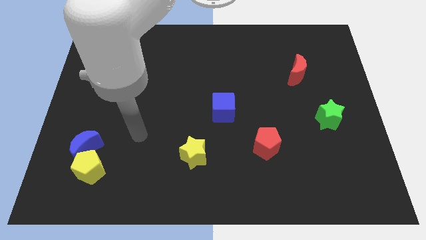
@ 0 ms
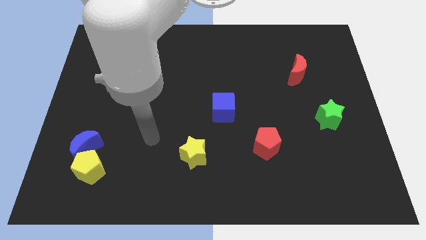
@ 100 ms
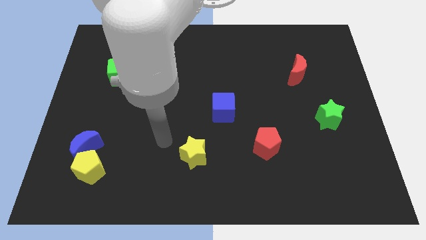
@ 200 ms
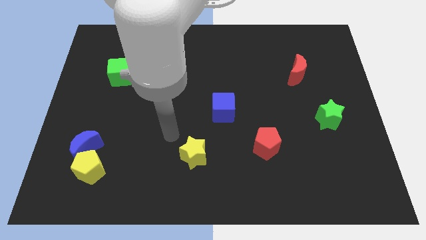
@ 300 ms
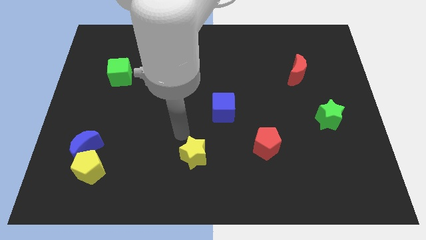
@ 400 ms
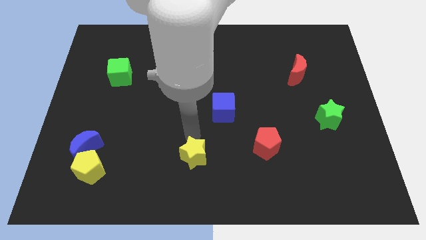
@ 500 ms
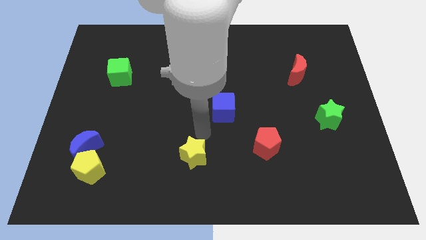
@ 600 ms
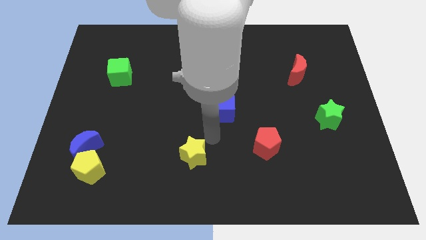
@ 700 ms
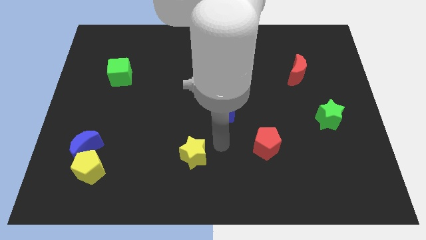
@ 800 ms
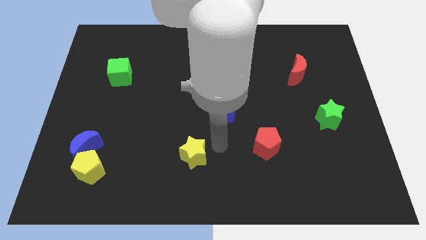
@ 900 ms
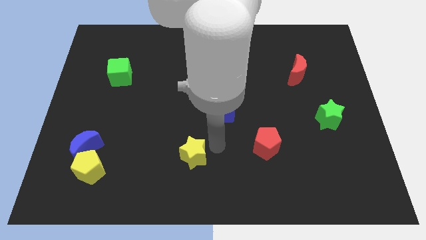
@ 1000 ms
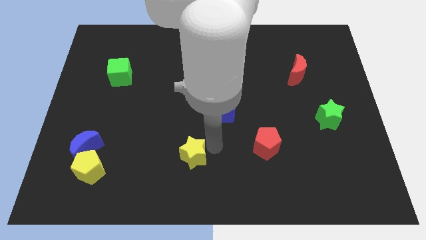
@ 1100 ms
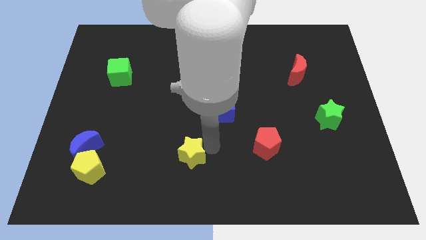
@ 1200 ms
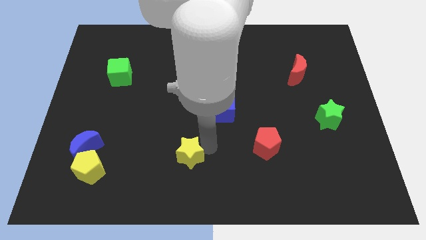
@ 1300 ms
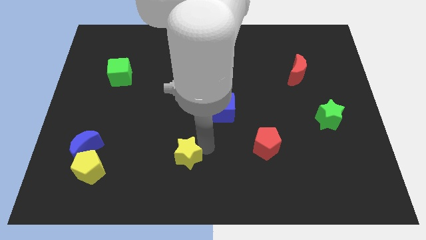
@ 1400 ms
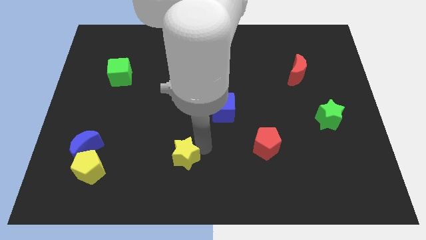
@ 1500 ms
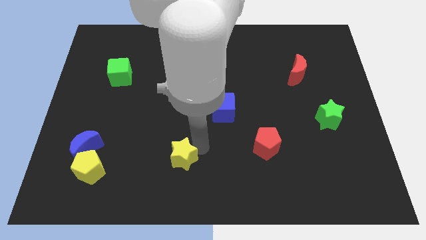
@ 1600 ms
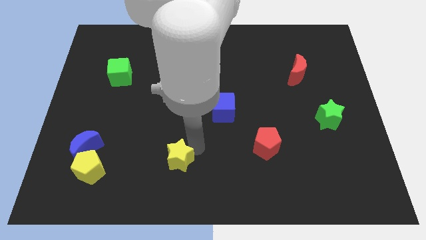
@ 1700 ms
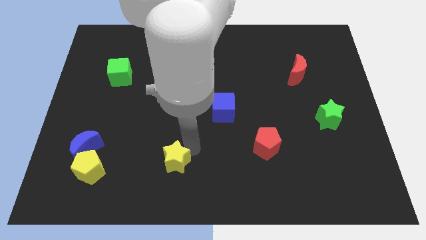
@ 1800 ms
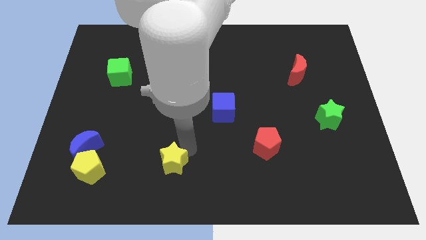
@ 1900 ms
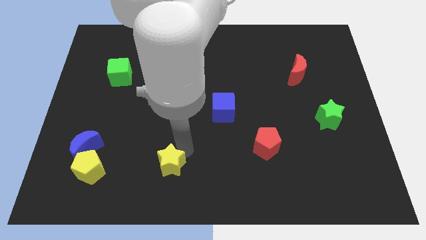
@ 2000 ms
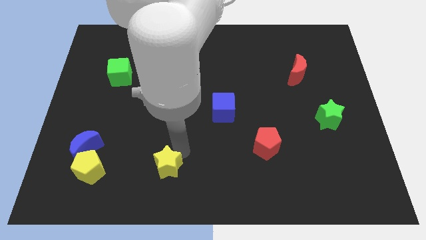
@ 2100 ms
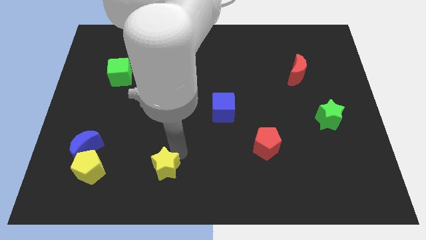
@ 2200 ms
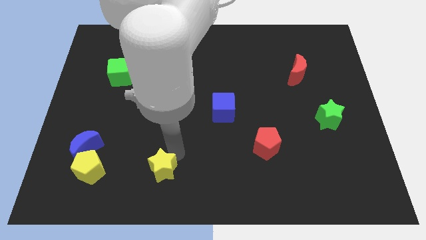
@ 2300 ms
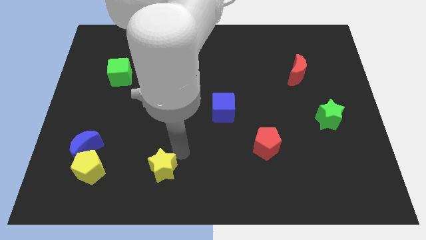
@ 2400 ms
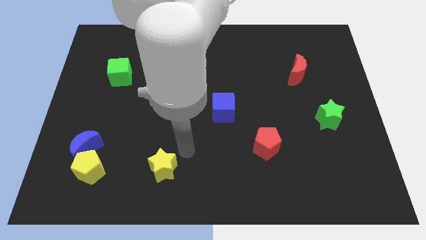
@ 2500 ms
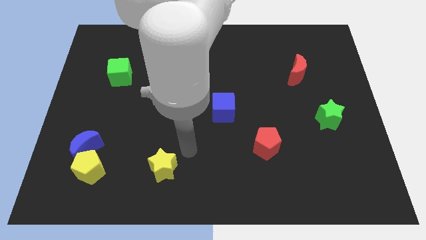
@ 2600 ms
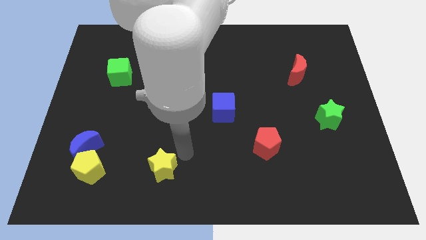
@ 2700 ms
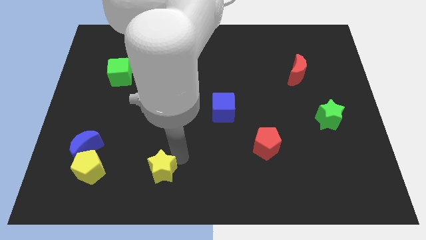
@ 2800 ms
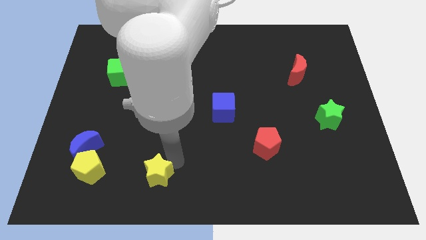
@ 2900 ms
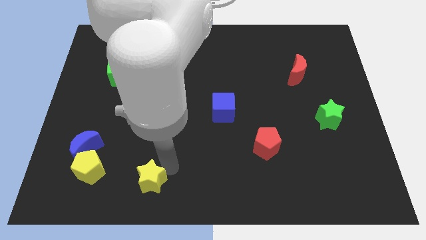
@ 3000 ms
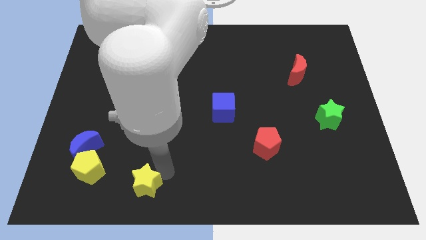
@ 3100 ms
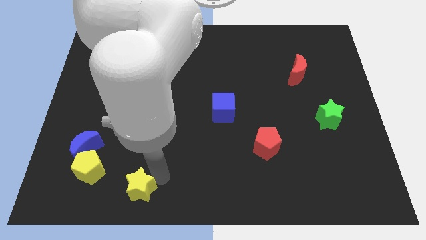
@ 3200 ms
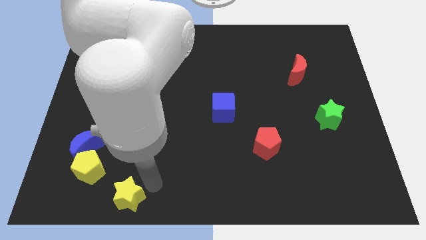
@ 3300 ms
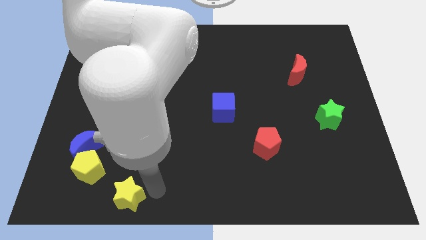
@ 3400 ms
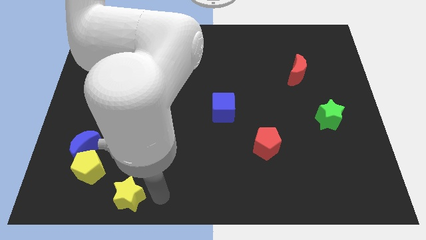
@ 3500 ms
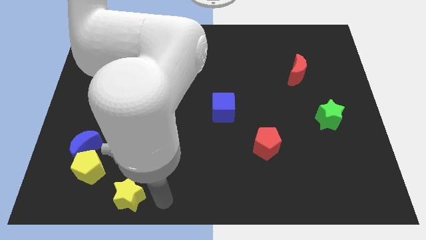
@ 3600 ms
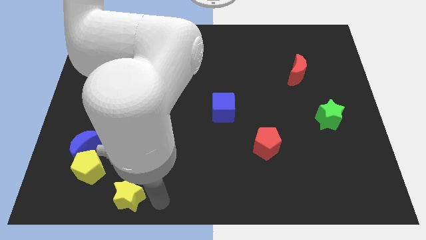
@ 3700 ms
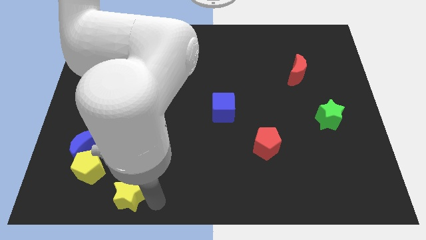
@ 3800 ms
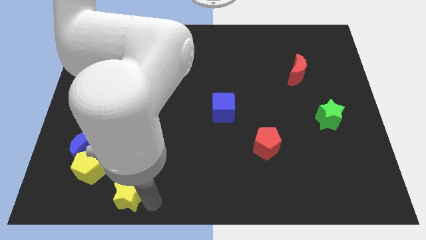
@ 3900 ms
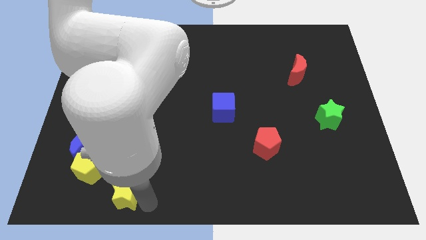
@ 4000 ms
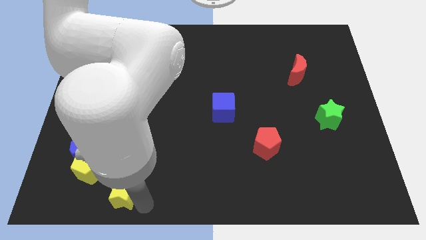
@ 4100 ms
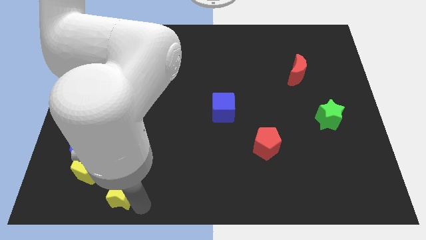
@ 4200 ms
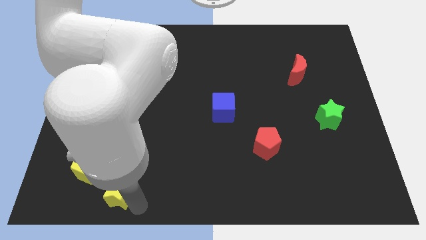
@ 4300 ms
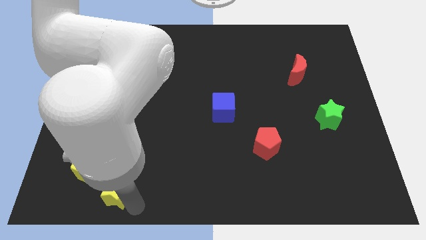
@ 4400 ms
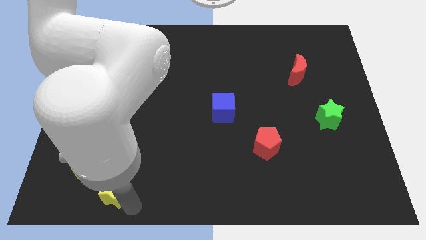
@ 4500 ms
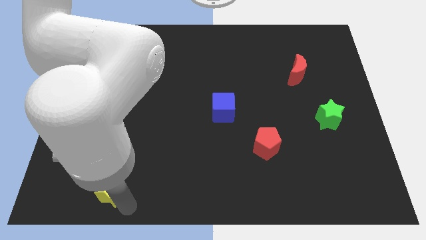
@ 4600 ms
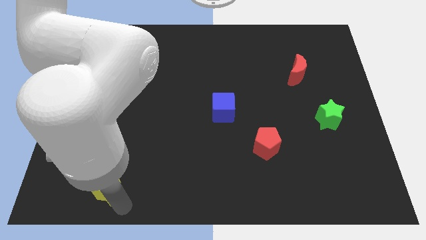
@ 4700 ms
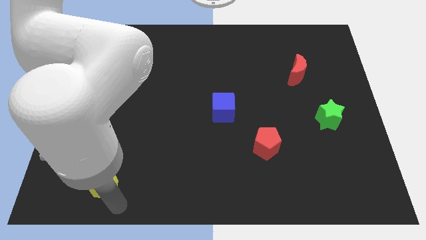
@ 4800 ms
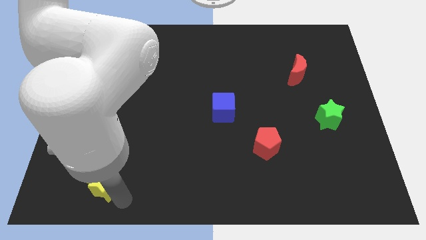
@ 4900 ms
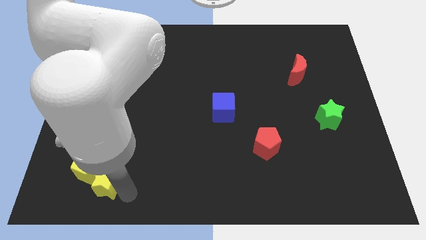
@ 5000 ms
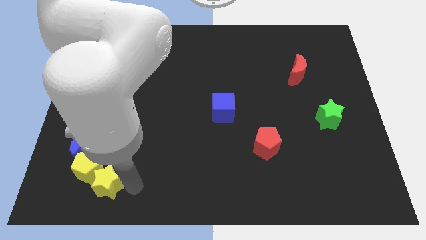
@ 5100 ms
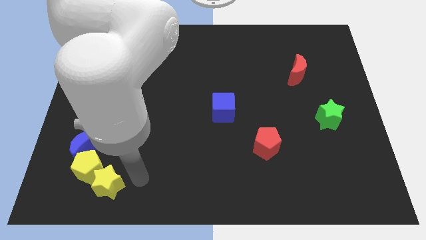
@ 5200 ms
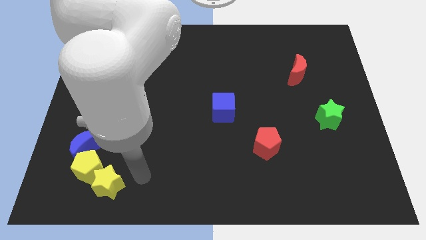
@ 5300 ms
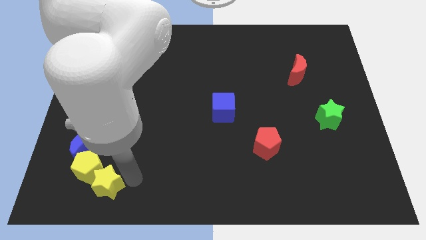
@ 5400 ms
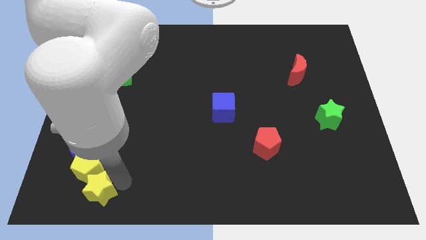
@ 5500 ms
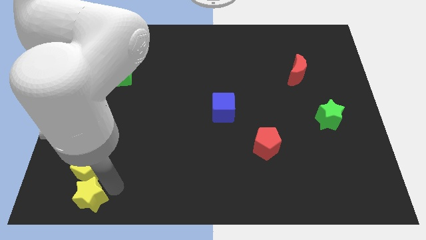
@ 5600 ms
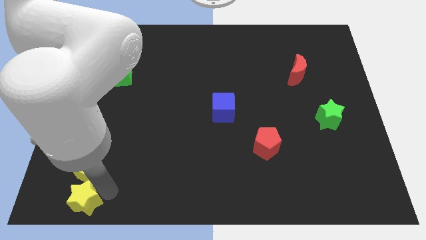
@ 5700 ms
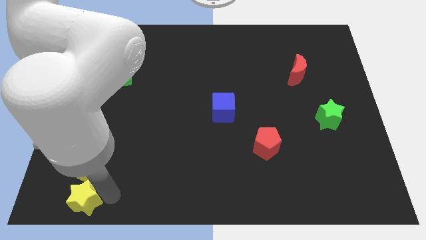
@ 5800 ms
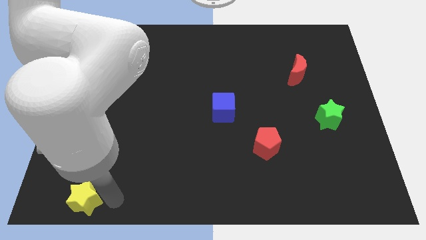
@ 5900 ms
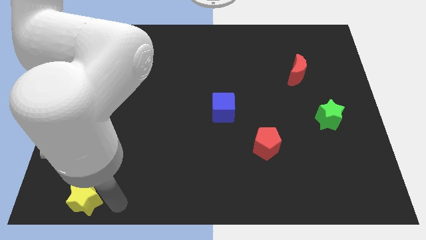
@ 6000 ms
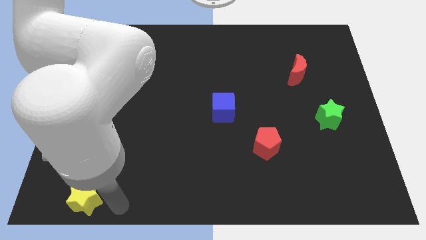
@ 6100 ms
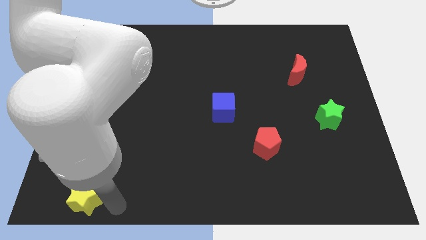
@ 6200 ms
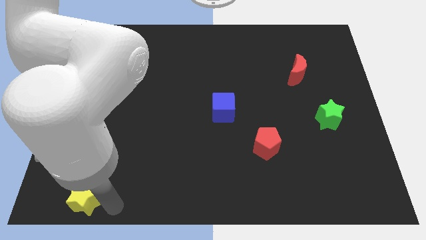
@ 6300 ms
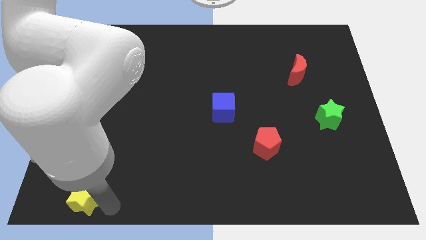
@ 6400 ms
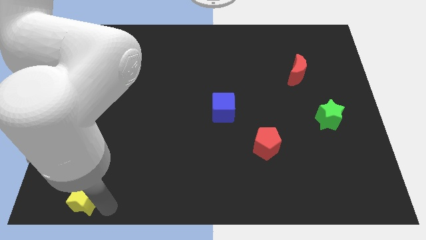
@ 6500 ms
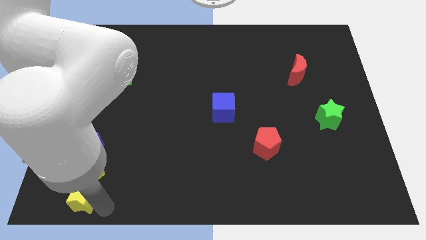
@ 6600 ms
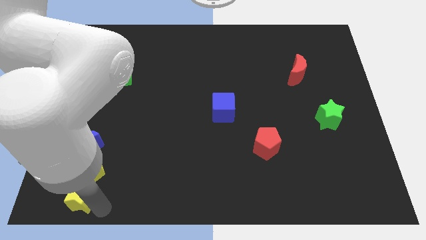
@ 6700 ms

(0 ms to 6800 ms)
push the yellow star to the lower left corner

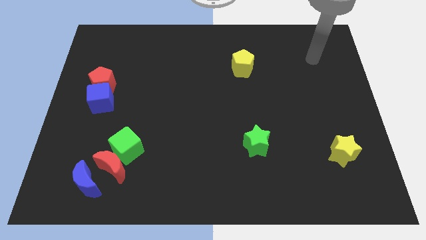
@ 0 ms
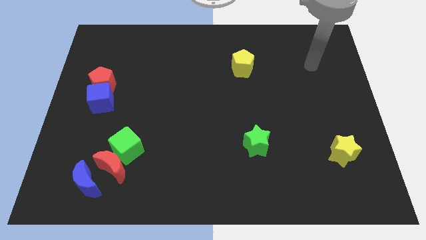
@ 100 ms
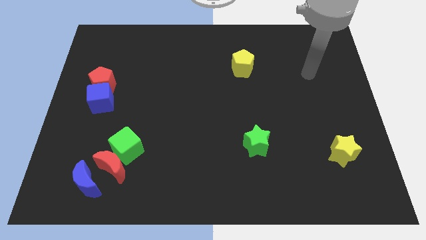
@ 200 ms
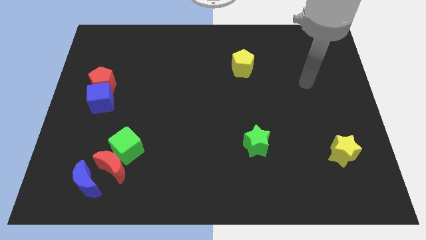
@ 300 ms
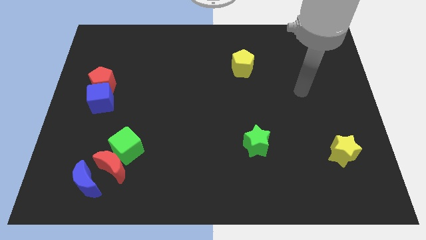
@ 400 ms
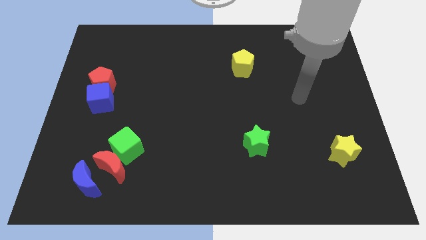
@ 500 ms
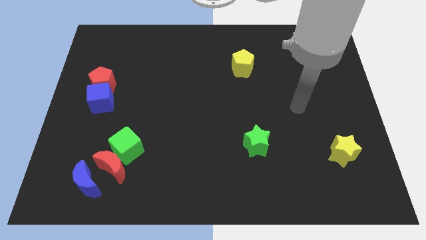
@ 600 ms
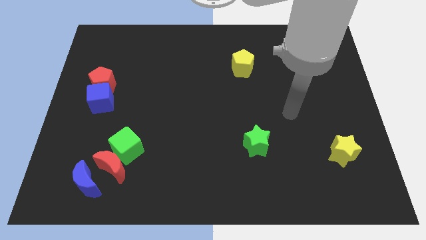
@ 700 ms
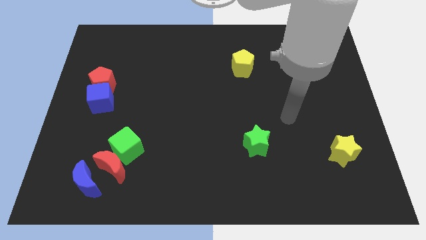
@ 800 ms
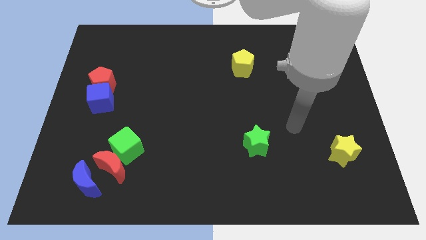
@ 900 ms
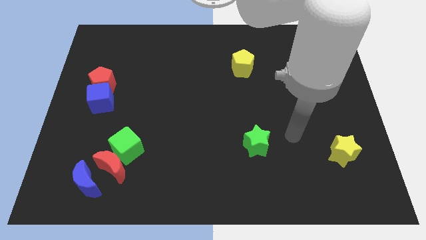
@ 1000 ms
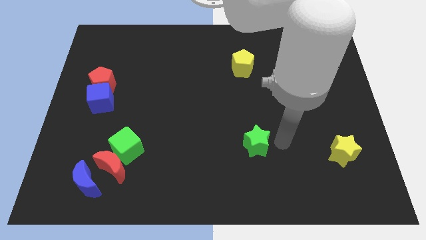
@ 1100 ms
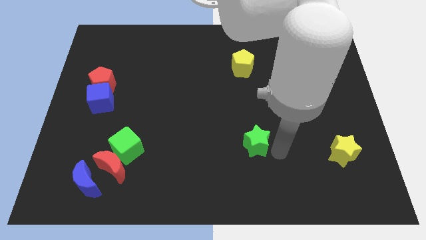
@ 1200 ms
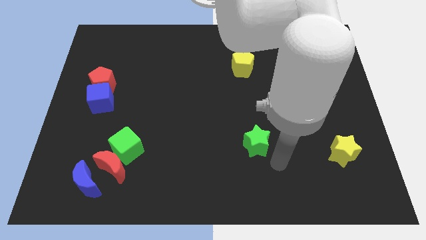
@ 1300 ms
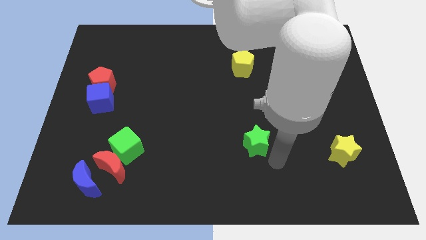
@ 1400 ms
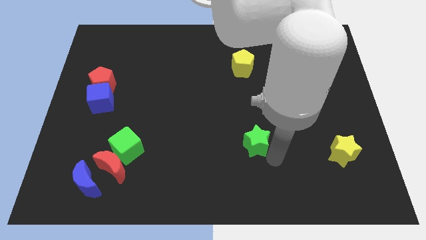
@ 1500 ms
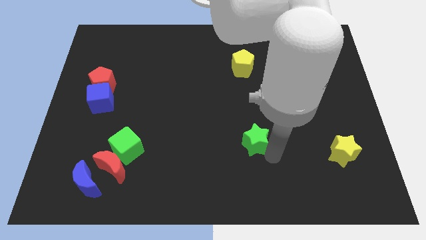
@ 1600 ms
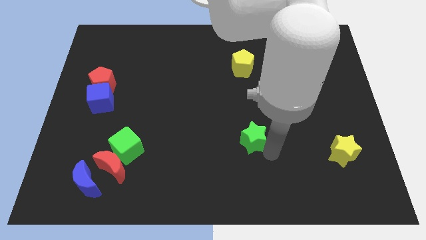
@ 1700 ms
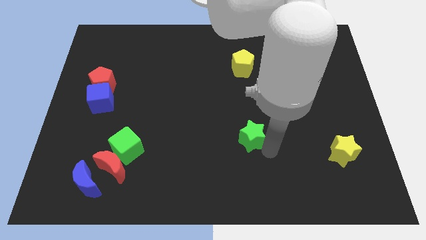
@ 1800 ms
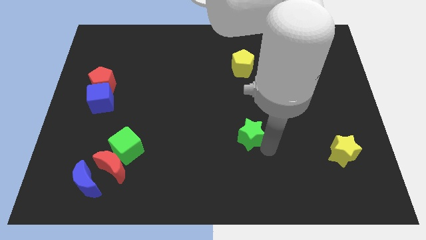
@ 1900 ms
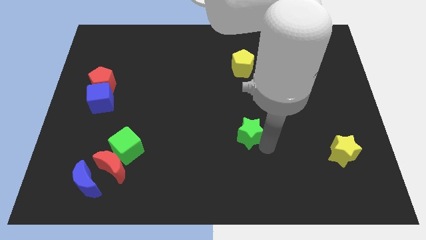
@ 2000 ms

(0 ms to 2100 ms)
move the green star to the center
